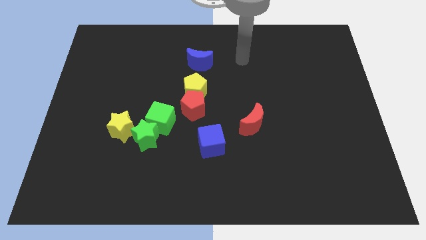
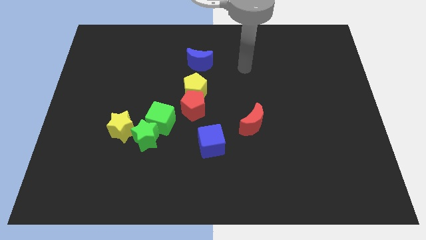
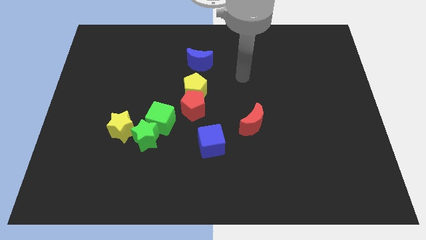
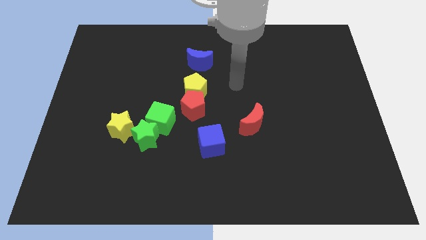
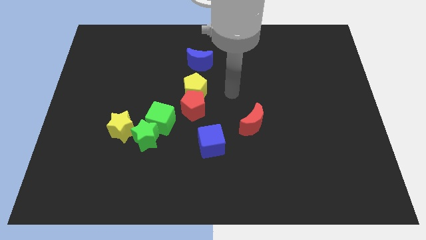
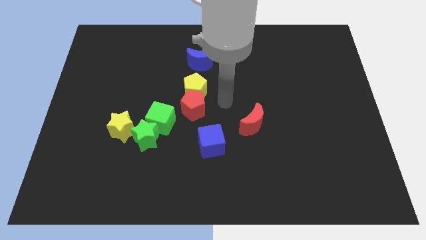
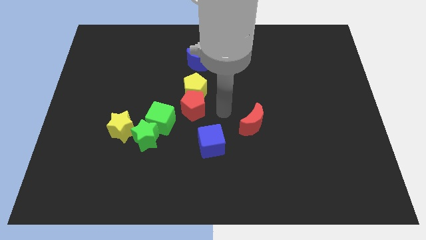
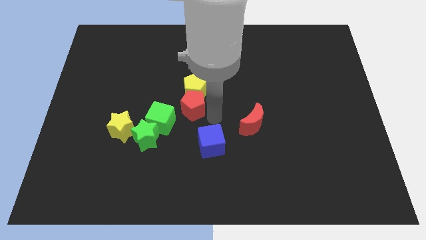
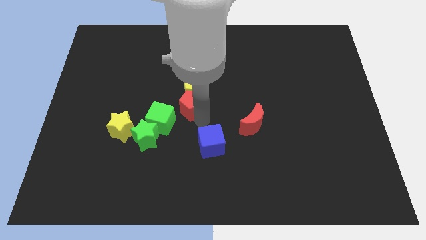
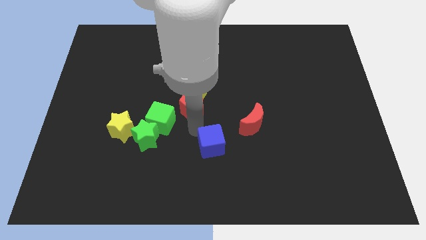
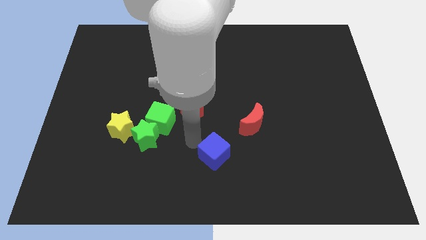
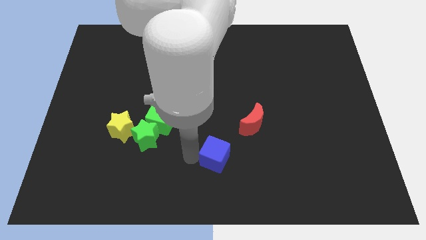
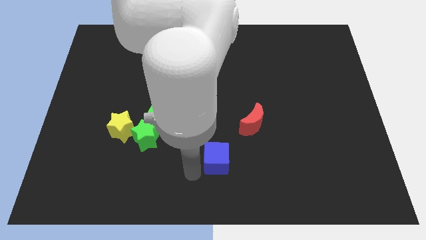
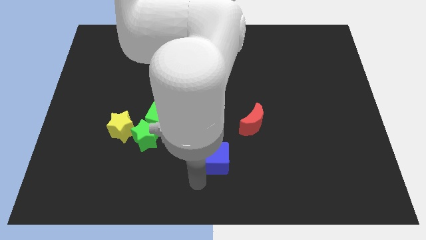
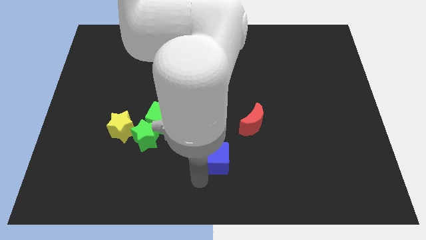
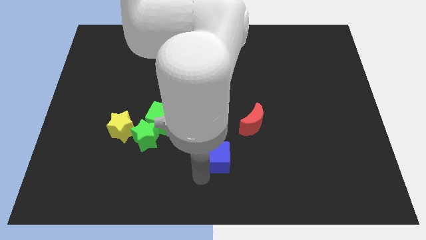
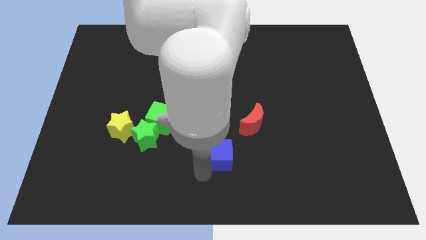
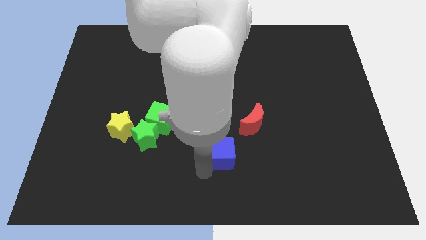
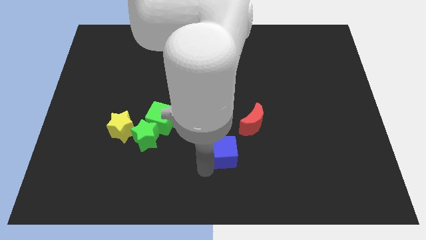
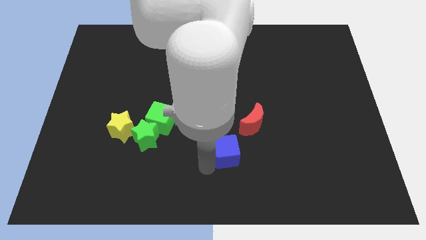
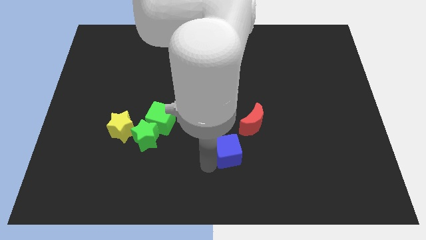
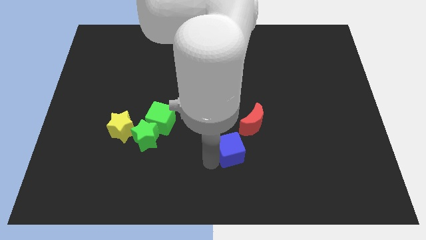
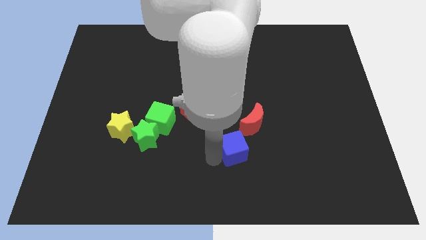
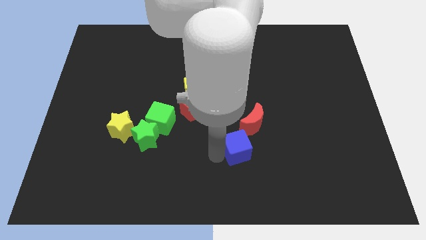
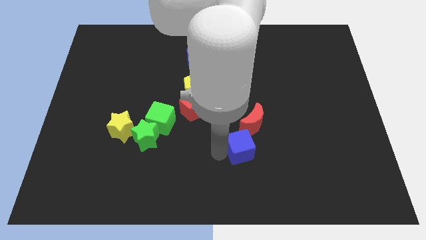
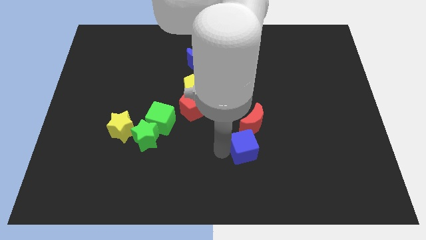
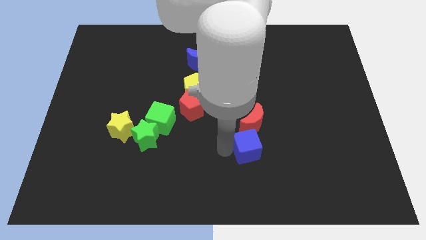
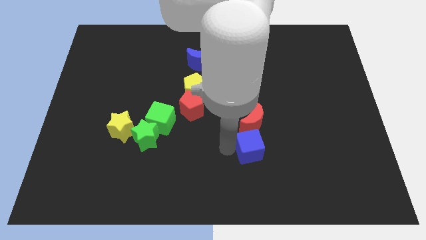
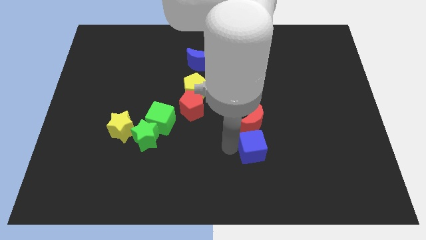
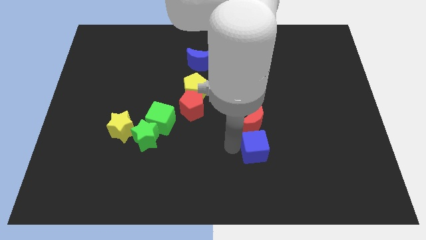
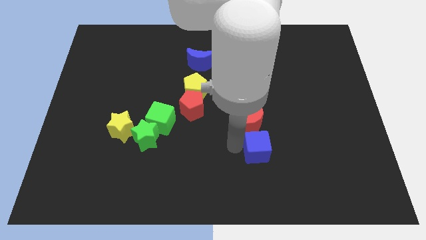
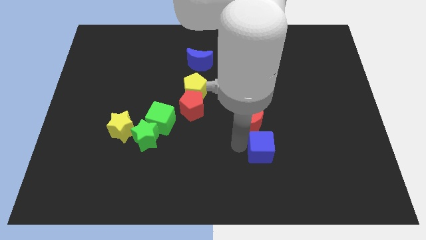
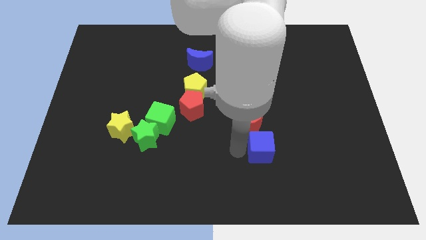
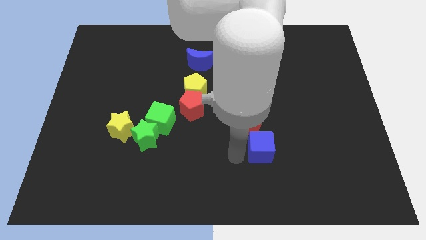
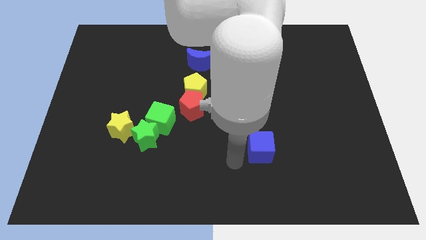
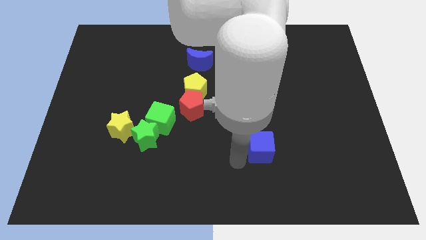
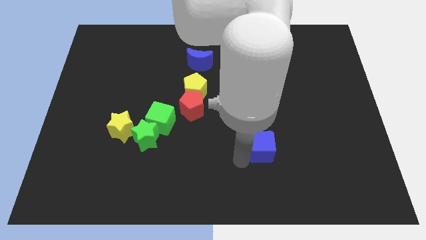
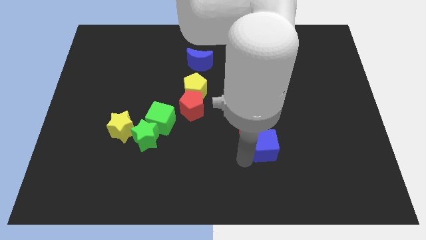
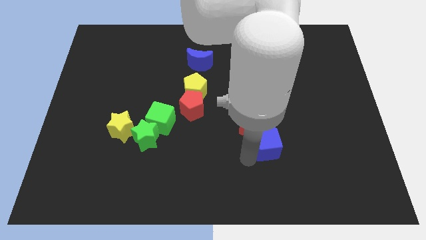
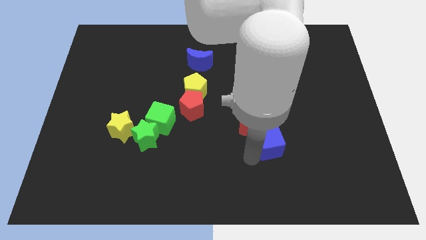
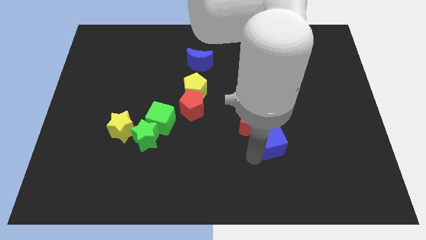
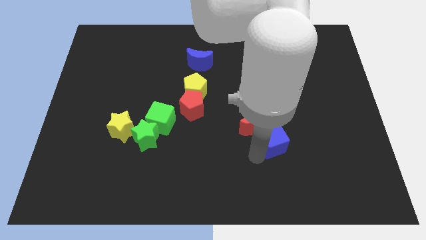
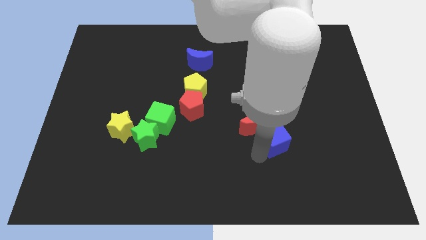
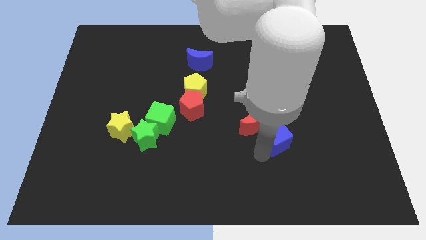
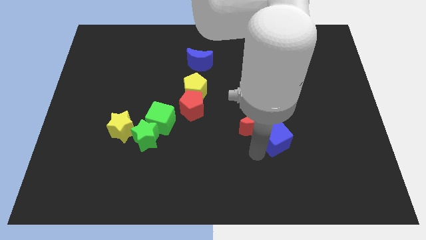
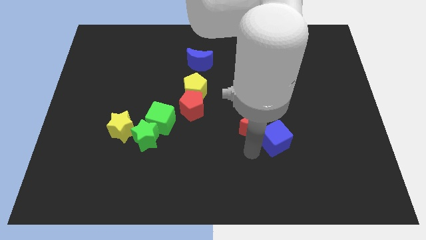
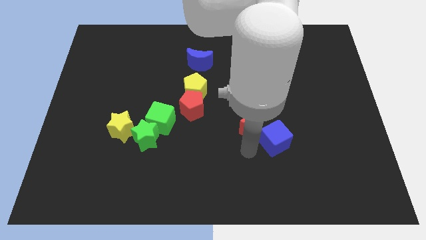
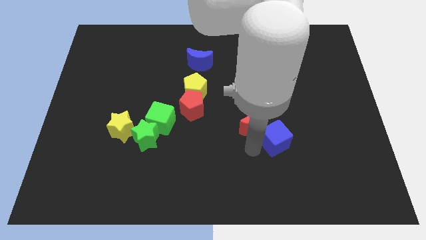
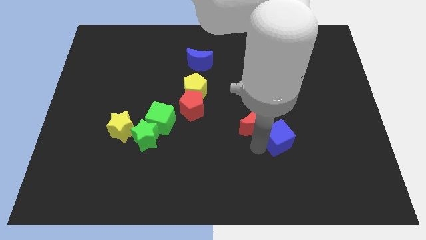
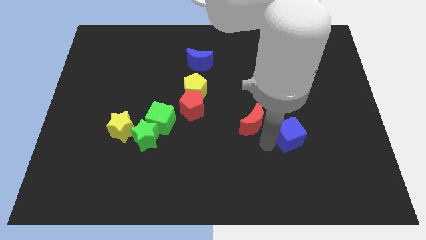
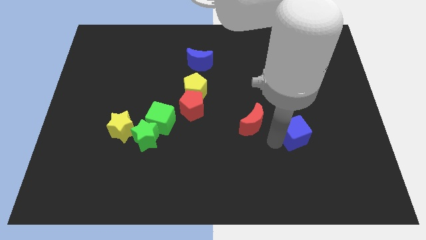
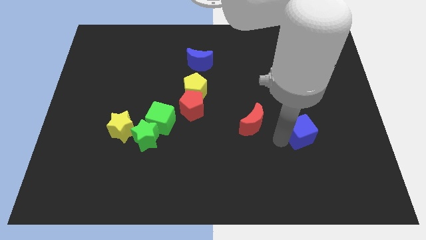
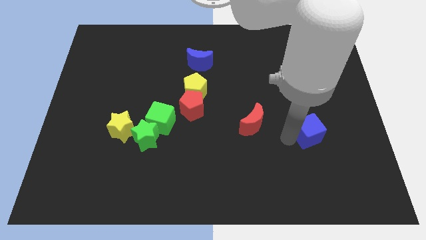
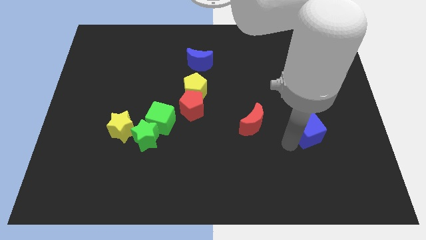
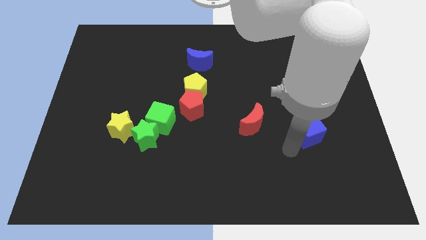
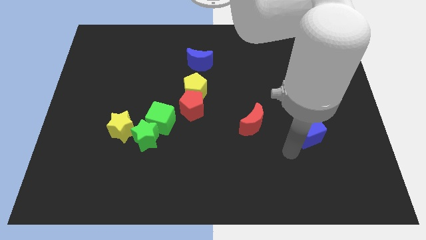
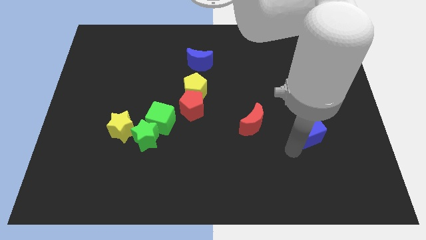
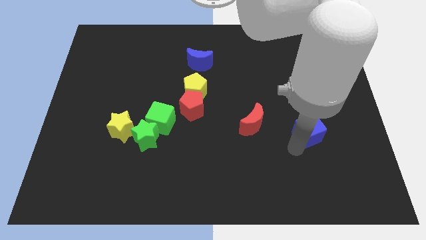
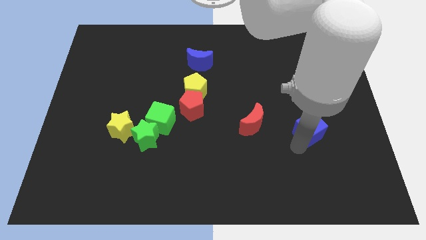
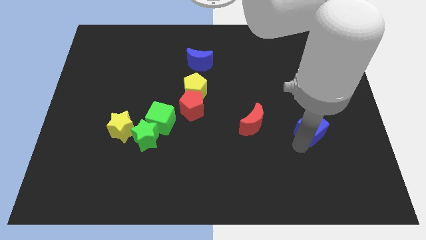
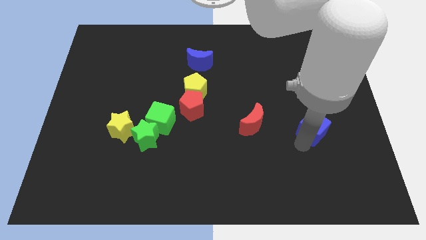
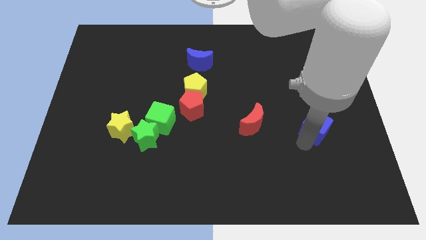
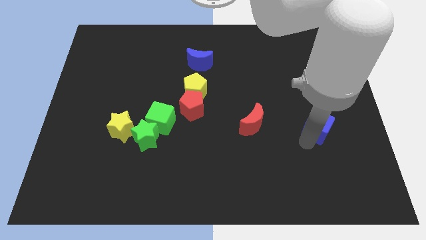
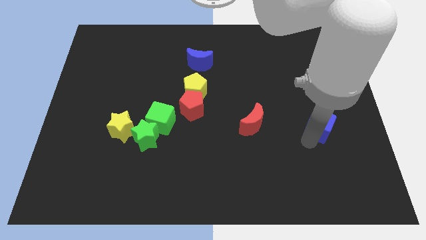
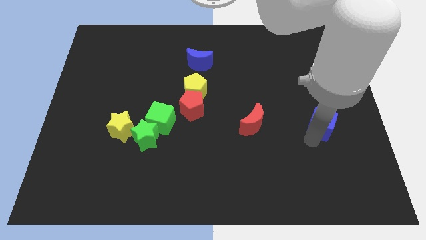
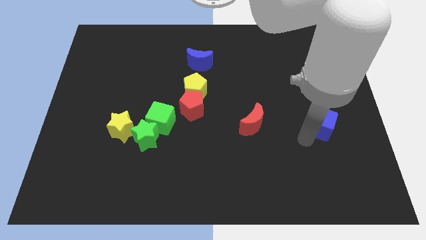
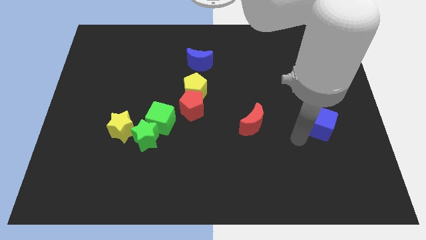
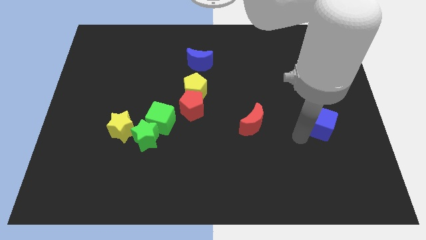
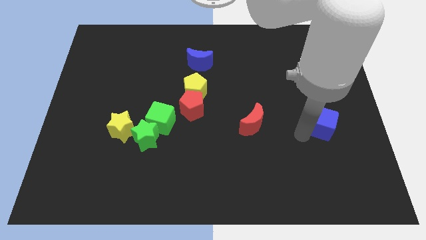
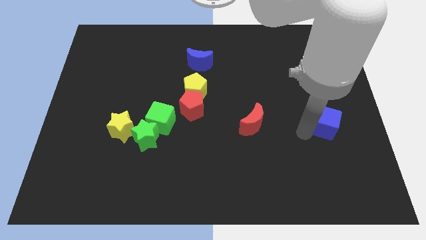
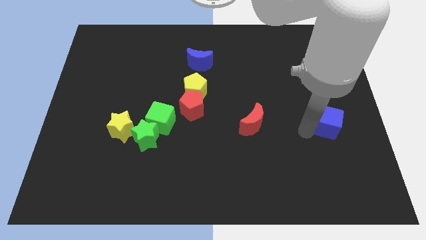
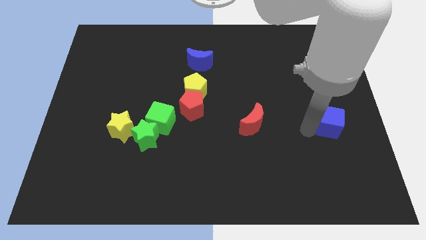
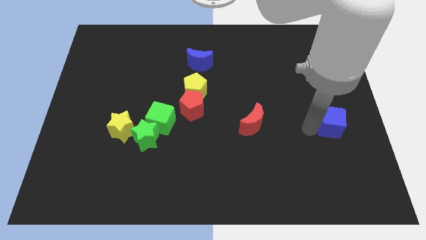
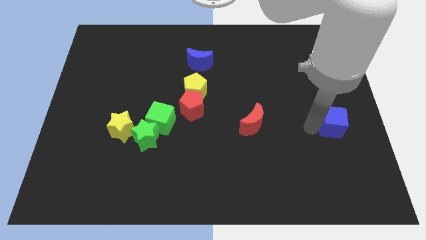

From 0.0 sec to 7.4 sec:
put the blue cube to the right side of the board

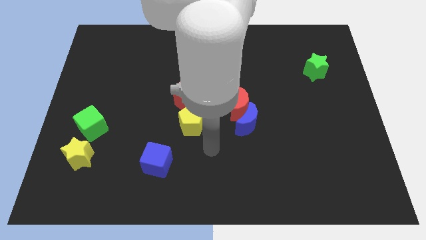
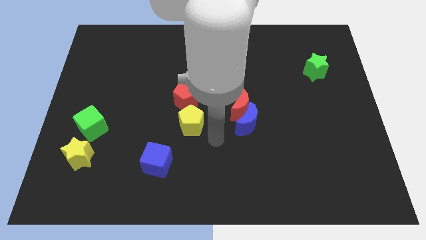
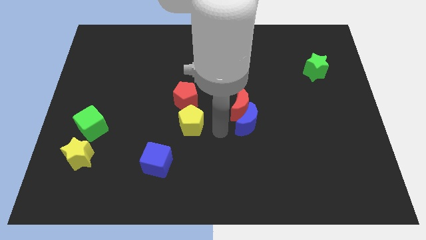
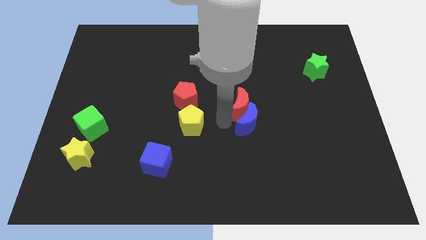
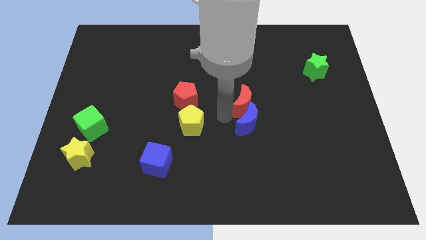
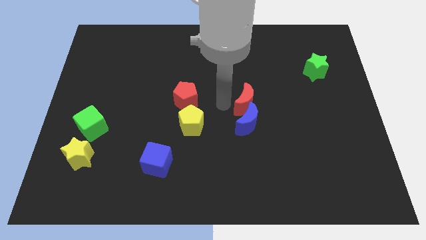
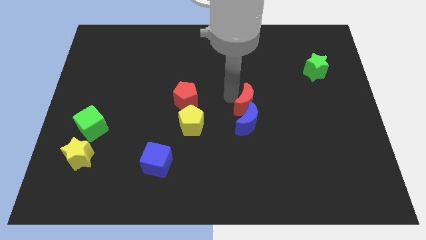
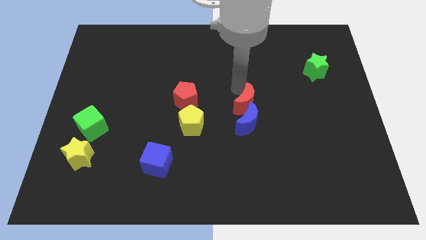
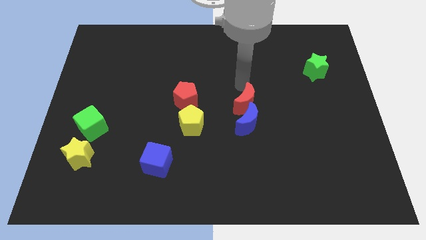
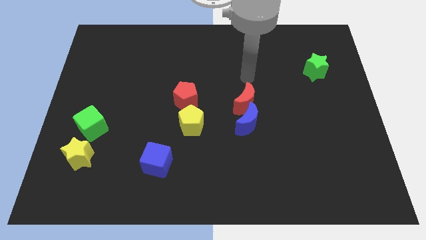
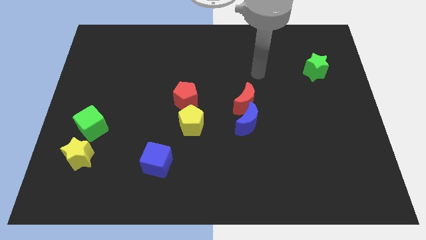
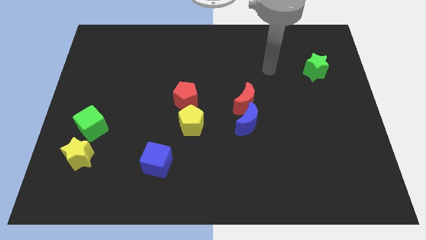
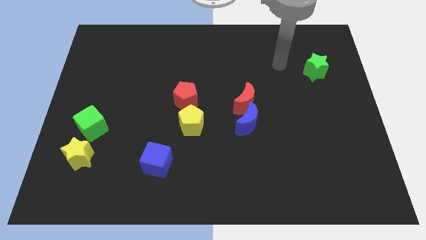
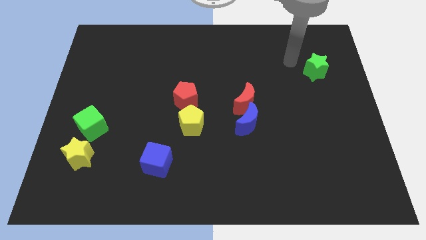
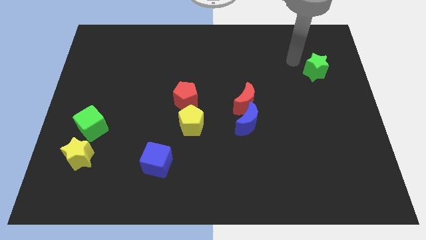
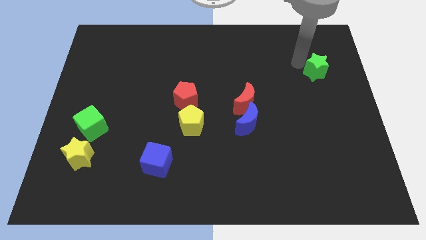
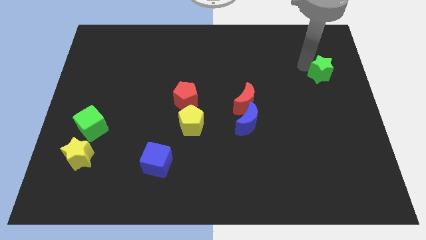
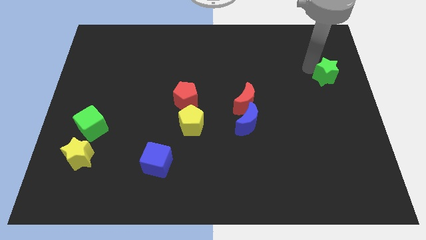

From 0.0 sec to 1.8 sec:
move the green star to the right side
